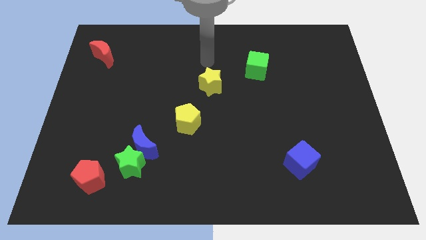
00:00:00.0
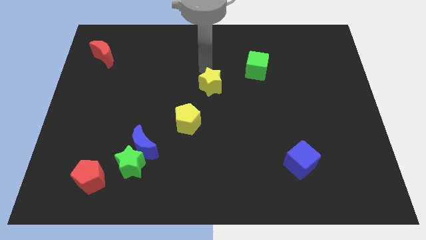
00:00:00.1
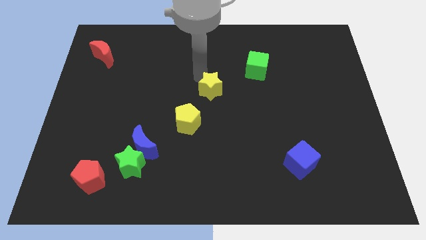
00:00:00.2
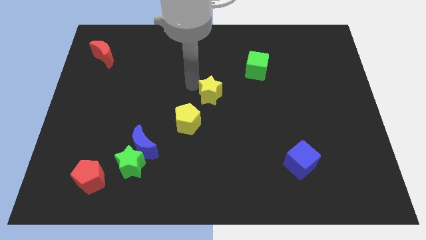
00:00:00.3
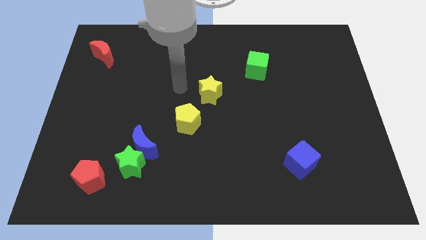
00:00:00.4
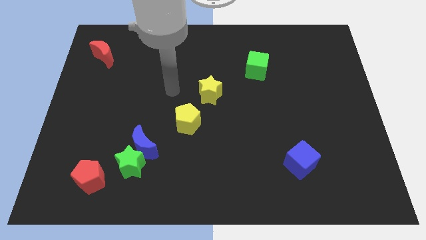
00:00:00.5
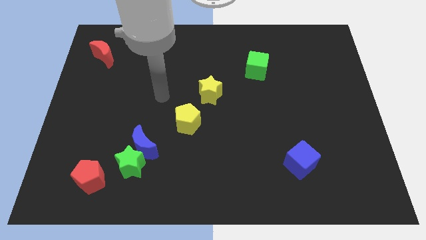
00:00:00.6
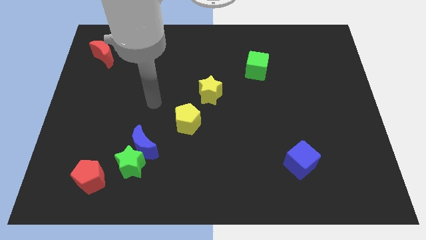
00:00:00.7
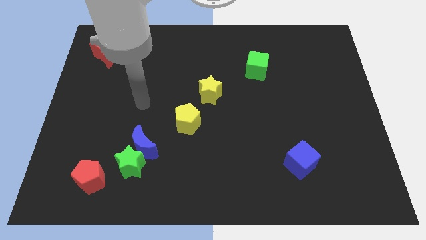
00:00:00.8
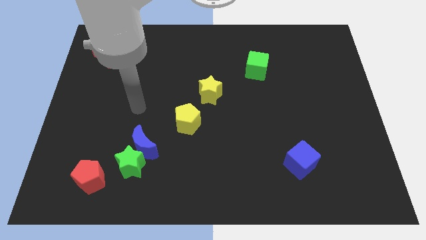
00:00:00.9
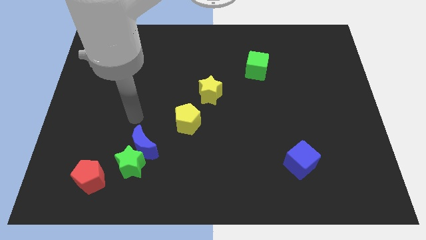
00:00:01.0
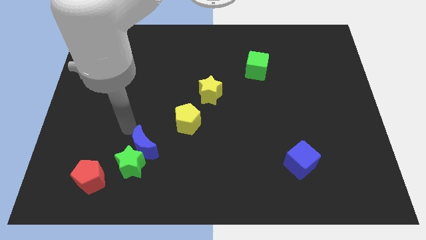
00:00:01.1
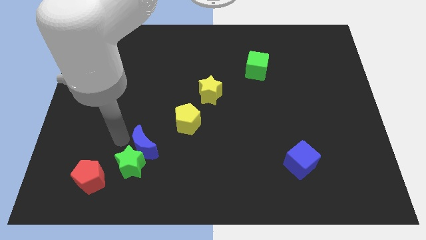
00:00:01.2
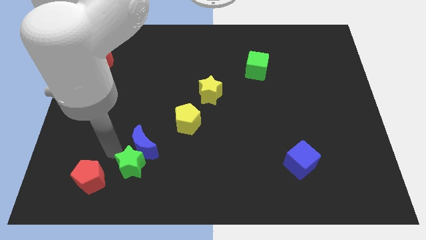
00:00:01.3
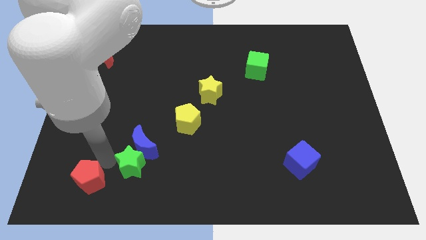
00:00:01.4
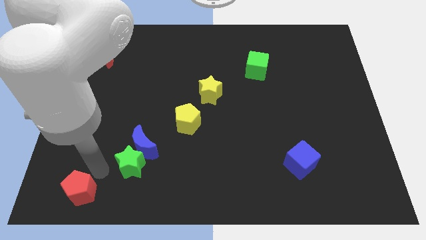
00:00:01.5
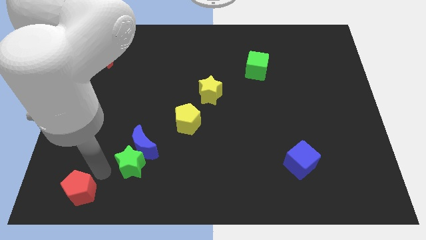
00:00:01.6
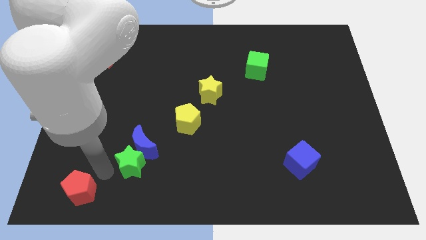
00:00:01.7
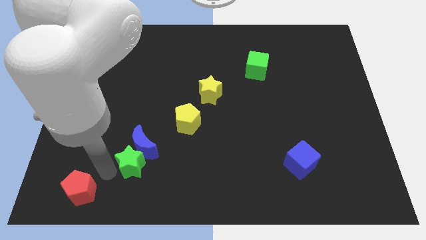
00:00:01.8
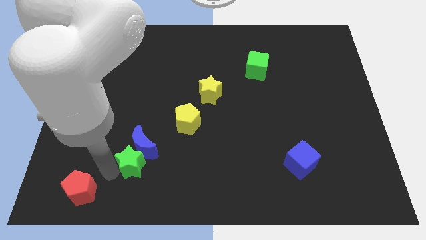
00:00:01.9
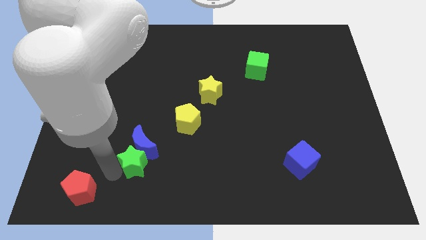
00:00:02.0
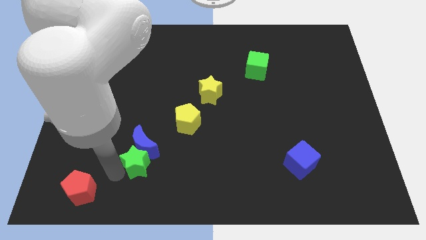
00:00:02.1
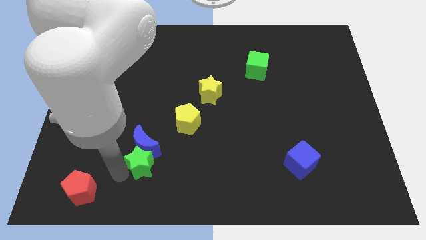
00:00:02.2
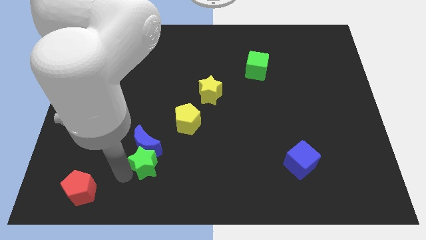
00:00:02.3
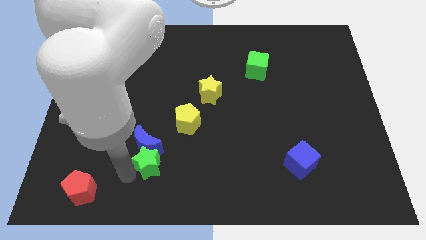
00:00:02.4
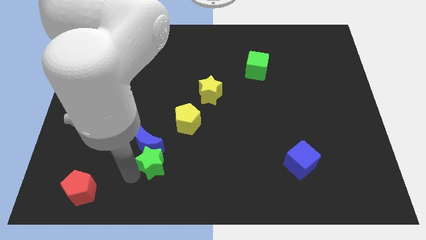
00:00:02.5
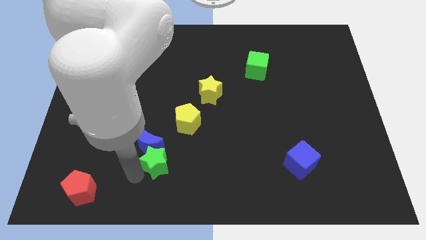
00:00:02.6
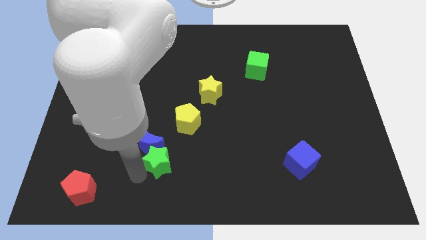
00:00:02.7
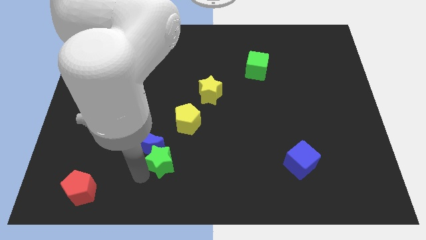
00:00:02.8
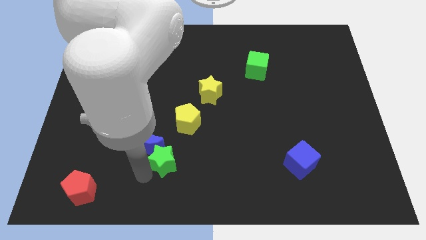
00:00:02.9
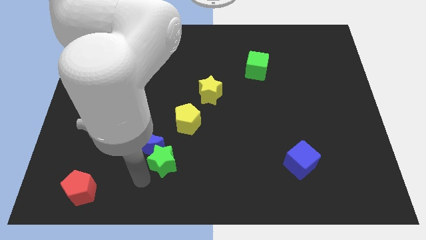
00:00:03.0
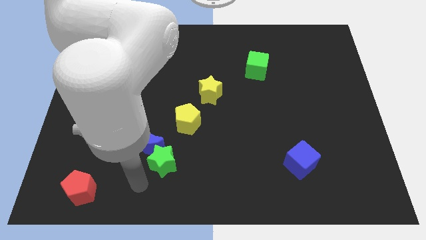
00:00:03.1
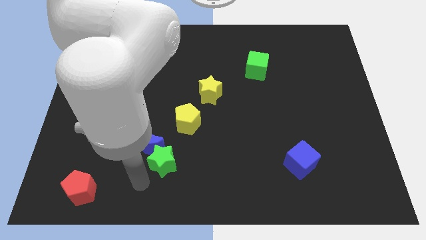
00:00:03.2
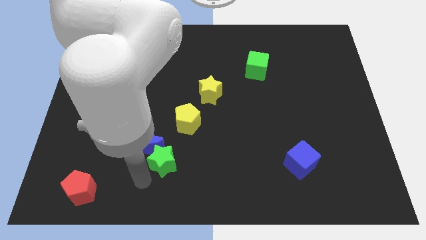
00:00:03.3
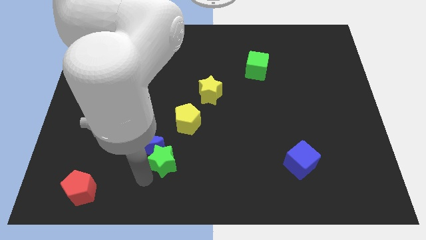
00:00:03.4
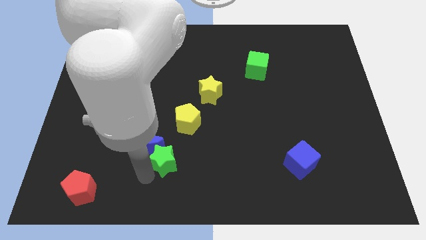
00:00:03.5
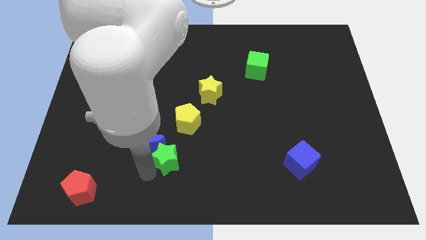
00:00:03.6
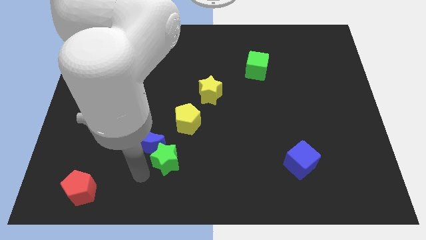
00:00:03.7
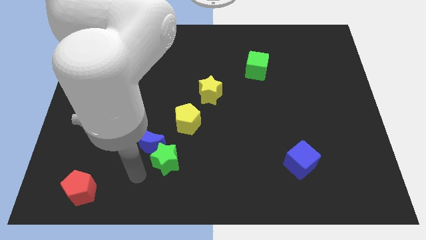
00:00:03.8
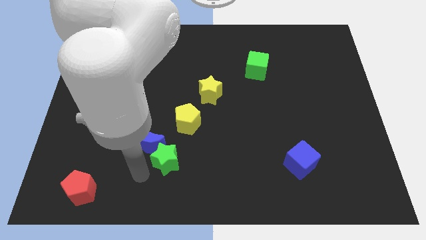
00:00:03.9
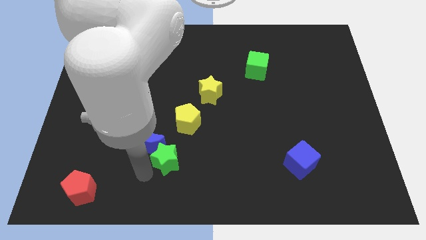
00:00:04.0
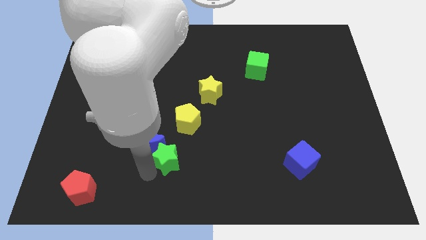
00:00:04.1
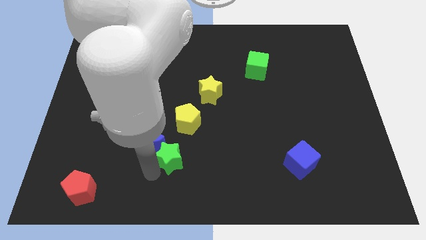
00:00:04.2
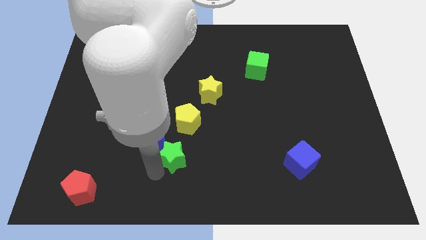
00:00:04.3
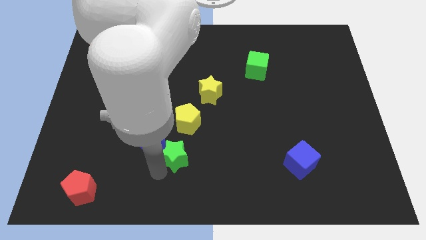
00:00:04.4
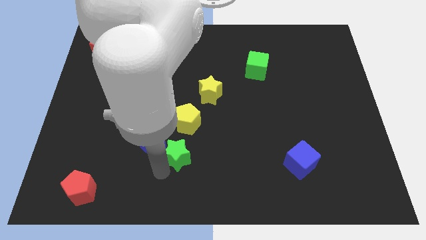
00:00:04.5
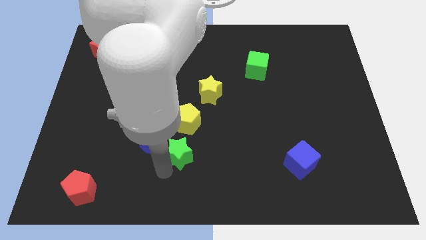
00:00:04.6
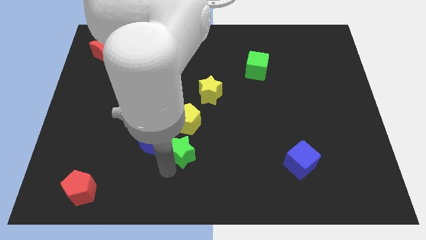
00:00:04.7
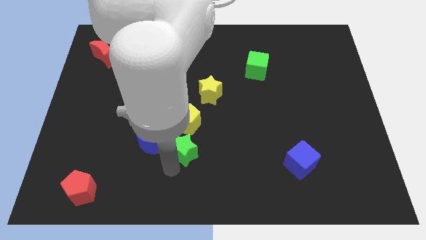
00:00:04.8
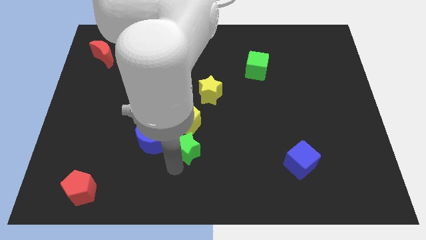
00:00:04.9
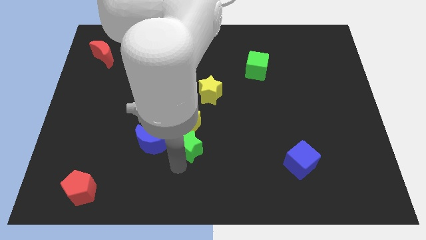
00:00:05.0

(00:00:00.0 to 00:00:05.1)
put the green star to the bottom right side of the yellow pentagon

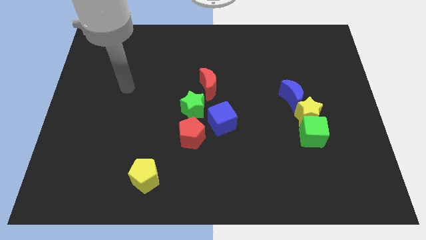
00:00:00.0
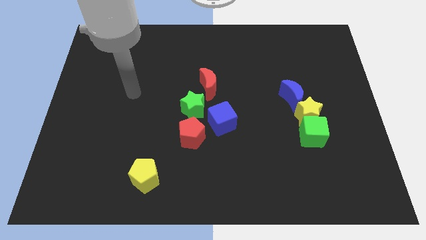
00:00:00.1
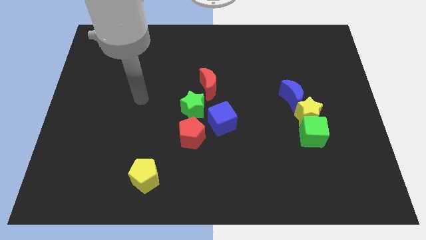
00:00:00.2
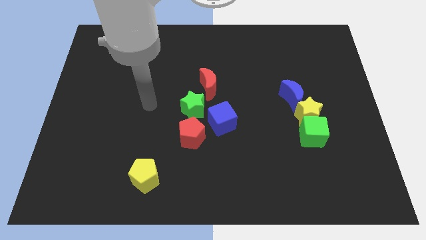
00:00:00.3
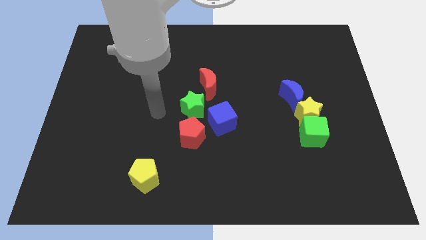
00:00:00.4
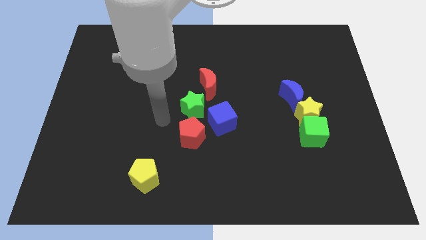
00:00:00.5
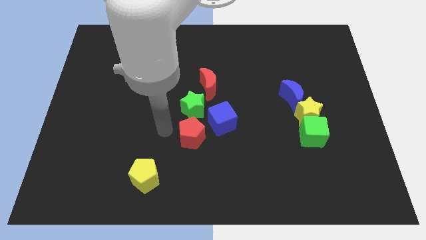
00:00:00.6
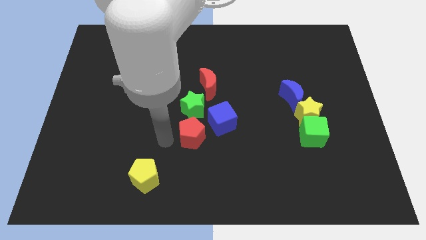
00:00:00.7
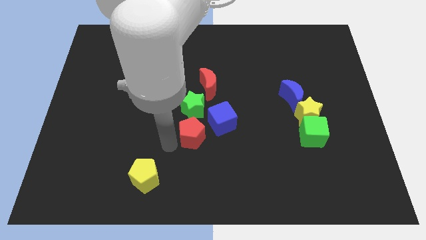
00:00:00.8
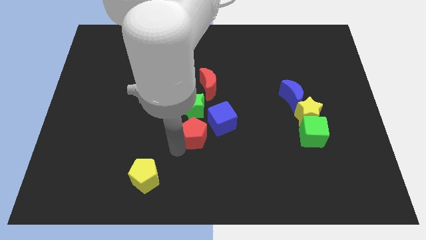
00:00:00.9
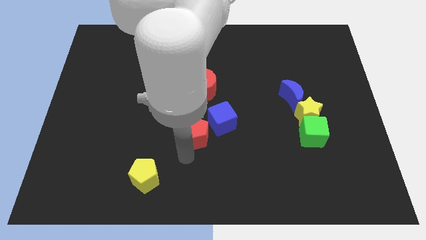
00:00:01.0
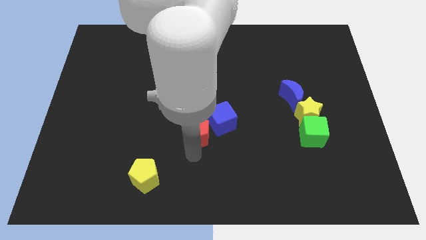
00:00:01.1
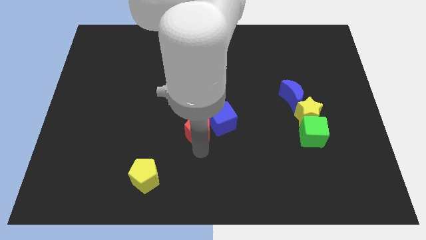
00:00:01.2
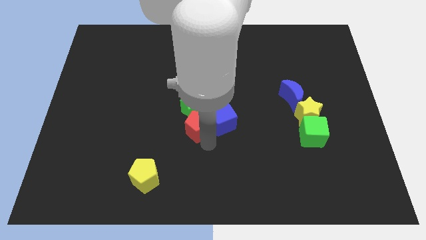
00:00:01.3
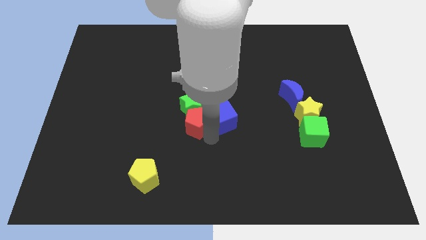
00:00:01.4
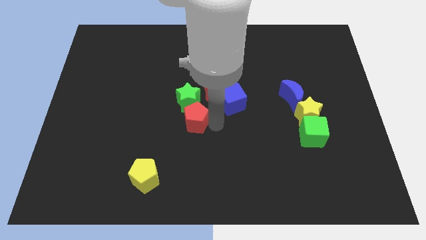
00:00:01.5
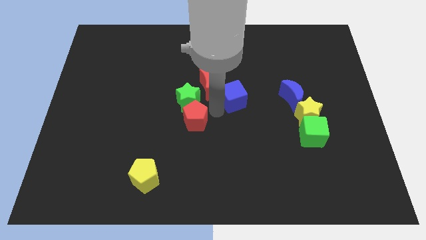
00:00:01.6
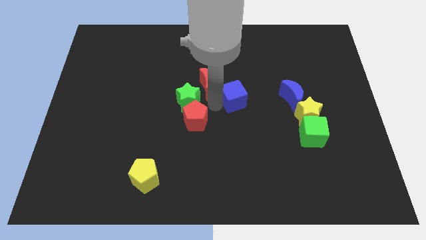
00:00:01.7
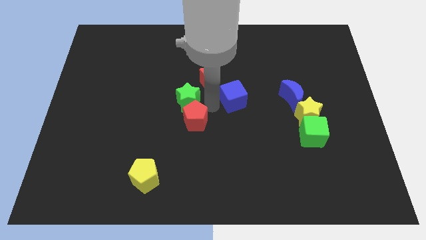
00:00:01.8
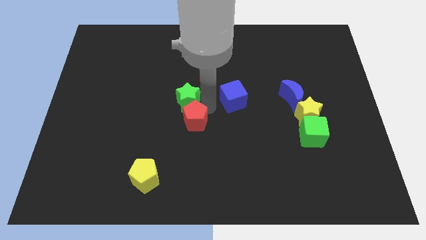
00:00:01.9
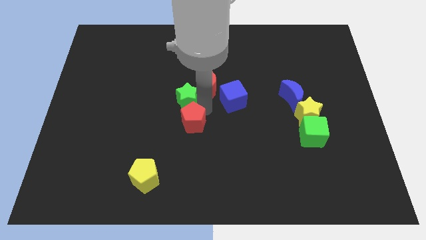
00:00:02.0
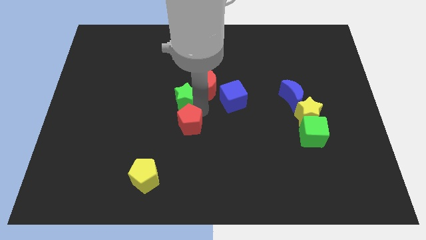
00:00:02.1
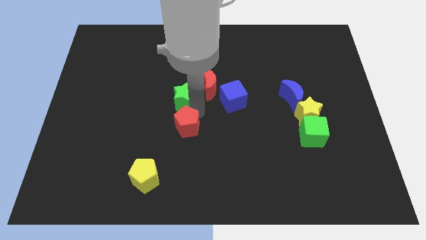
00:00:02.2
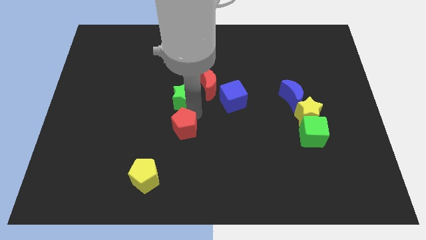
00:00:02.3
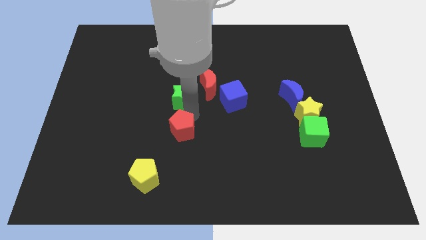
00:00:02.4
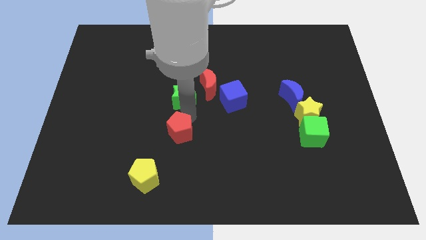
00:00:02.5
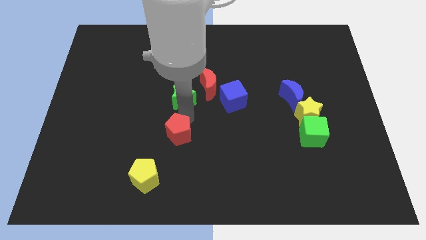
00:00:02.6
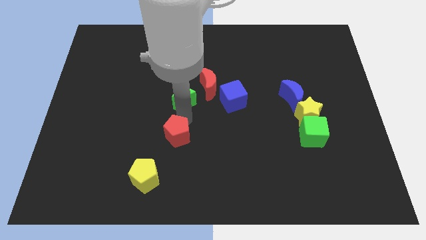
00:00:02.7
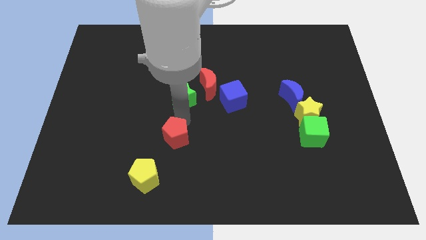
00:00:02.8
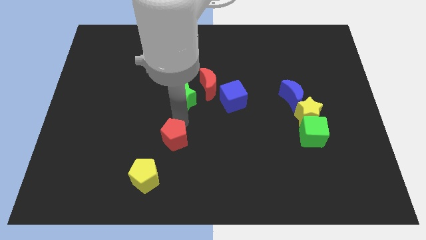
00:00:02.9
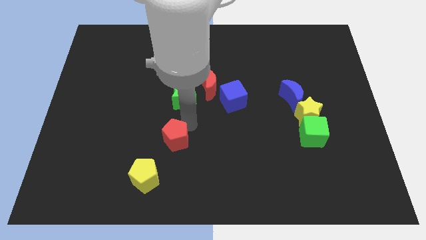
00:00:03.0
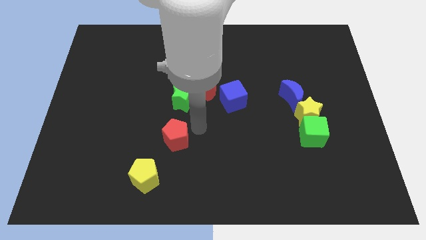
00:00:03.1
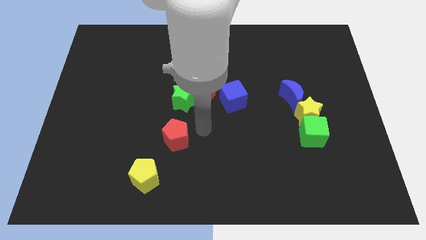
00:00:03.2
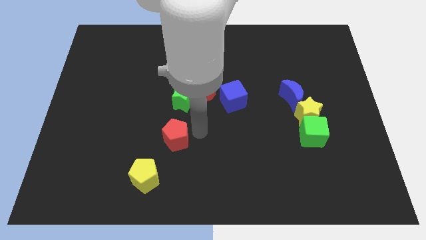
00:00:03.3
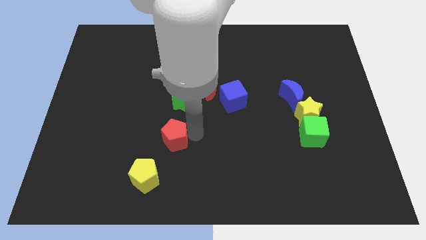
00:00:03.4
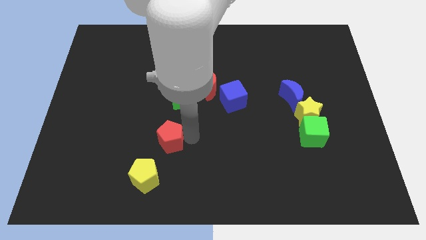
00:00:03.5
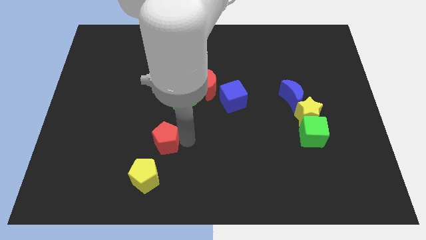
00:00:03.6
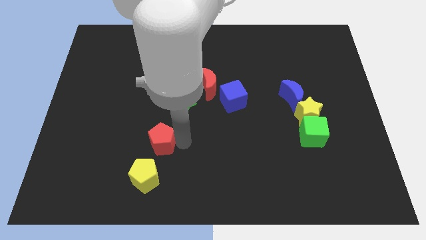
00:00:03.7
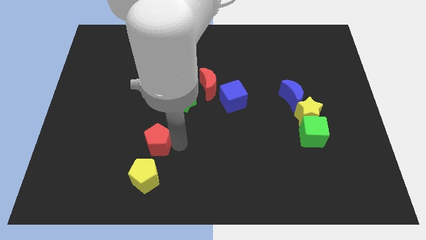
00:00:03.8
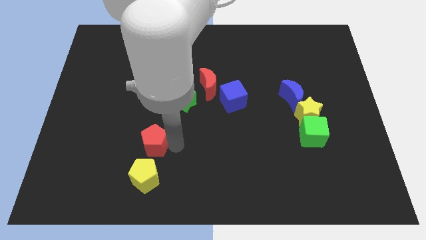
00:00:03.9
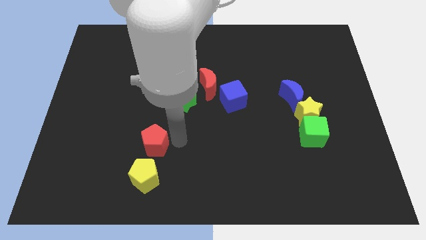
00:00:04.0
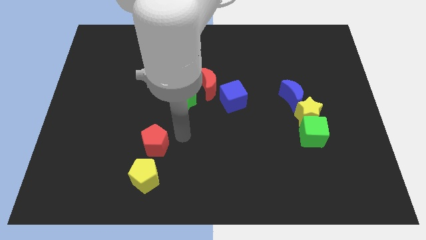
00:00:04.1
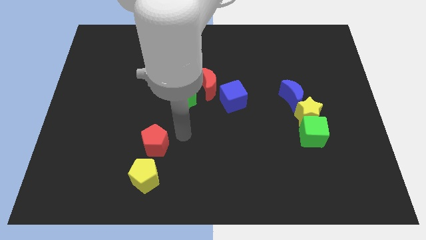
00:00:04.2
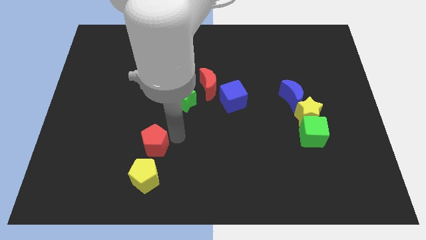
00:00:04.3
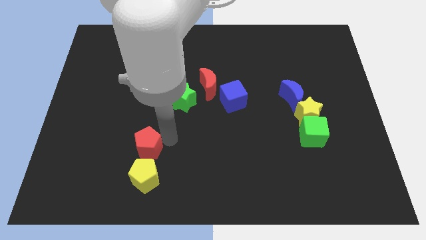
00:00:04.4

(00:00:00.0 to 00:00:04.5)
push the red pentagon to the top left side of the yellow pentagon
